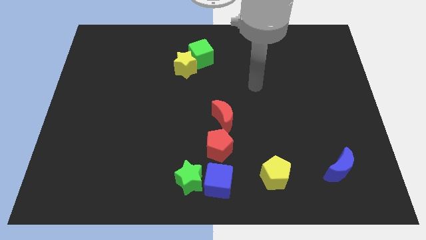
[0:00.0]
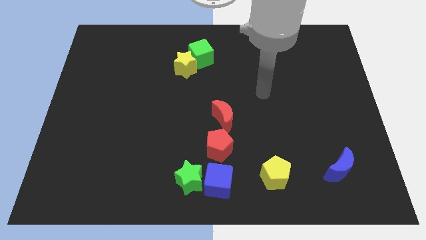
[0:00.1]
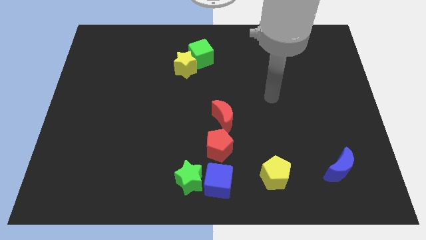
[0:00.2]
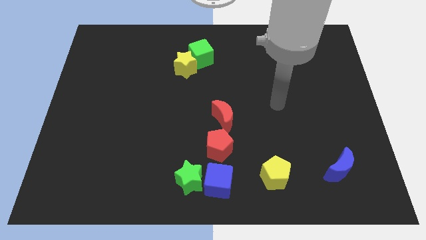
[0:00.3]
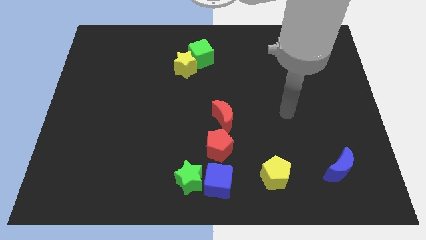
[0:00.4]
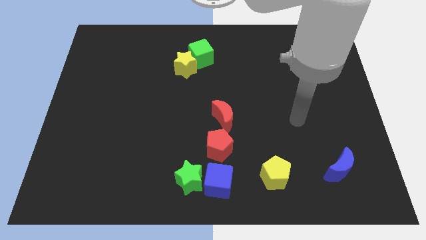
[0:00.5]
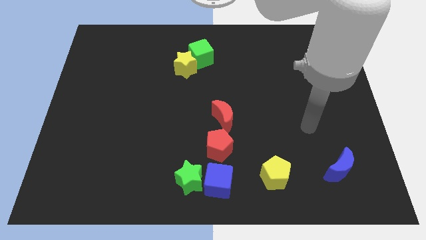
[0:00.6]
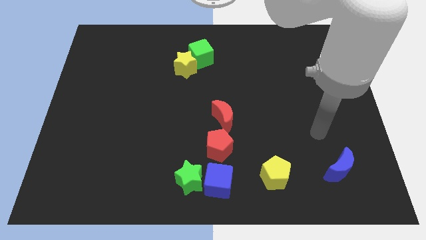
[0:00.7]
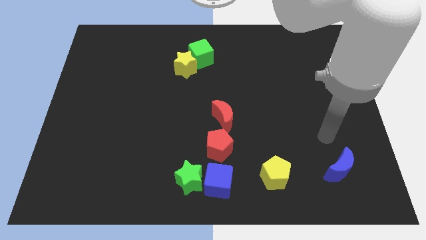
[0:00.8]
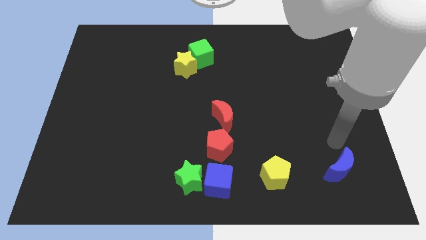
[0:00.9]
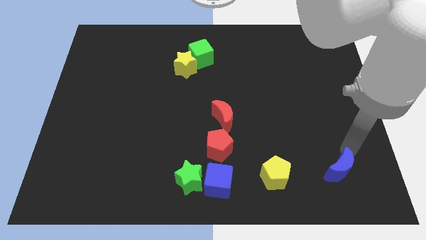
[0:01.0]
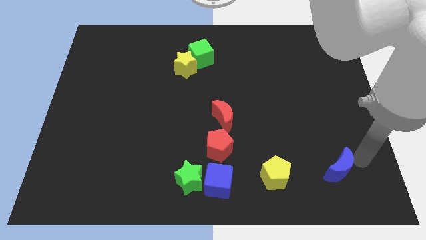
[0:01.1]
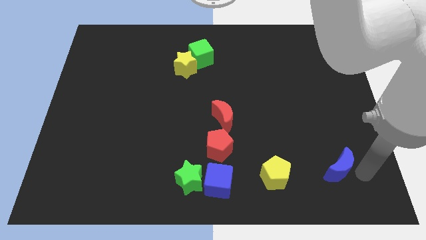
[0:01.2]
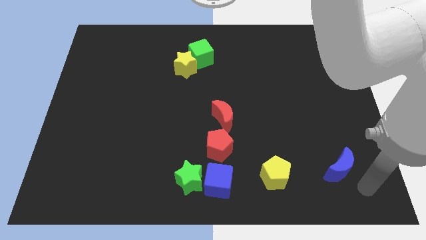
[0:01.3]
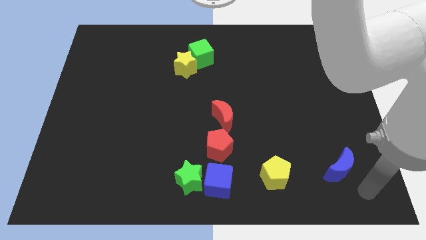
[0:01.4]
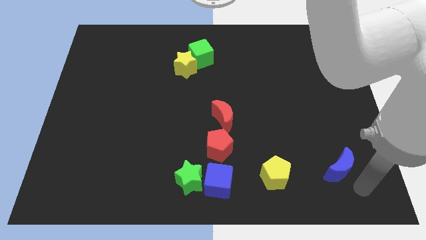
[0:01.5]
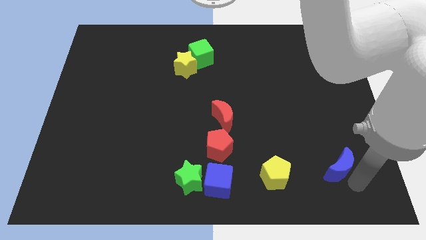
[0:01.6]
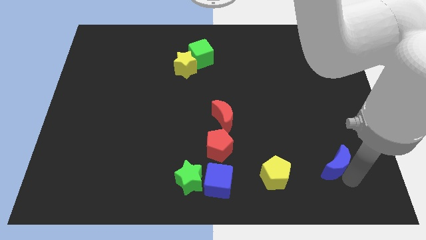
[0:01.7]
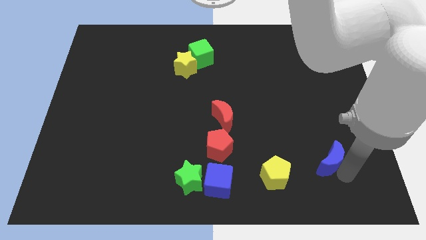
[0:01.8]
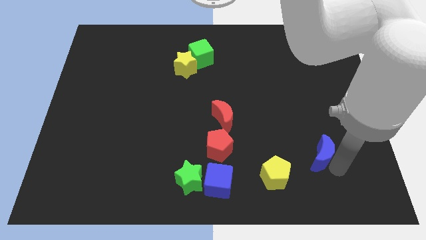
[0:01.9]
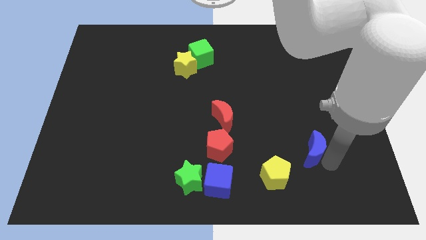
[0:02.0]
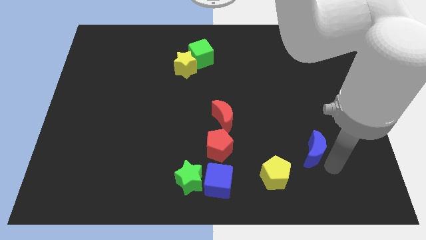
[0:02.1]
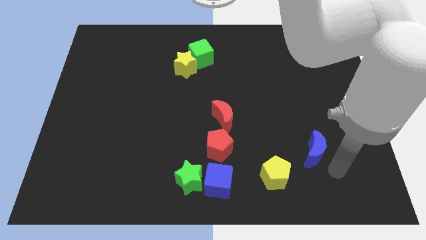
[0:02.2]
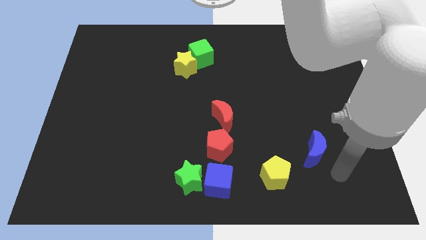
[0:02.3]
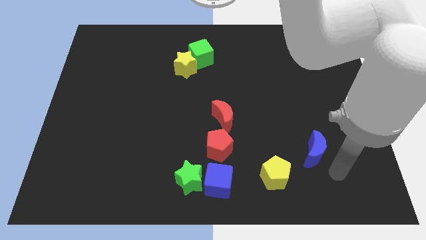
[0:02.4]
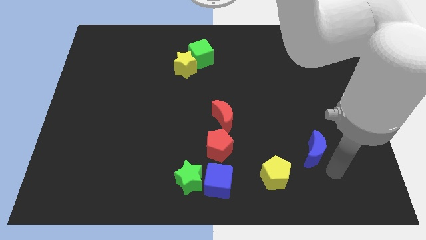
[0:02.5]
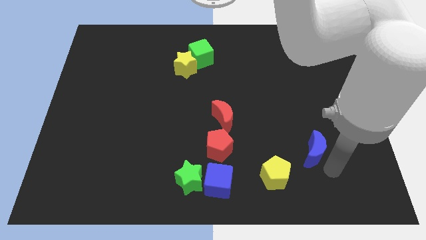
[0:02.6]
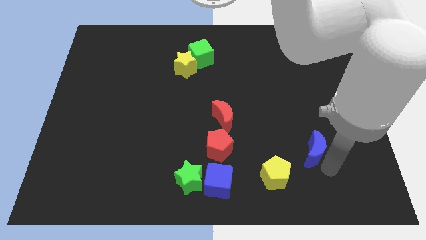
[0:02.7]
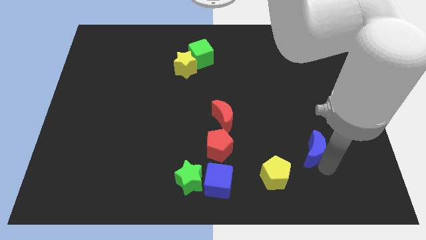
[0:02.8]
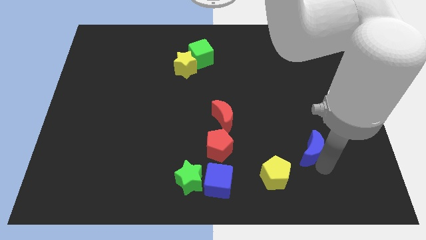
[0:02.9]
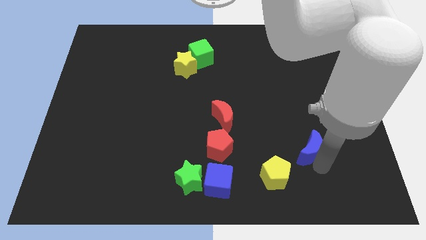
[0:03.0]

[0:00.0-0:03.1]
move the blue moon somewhat up and to the left

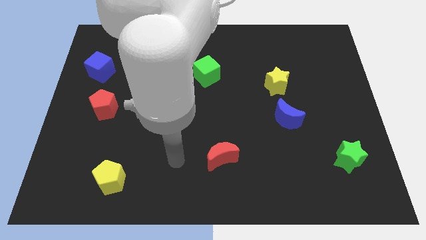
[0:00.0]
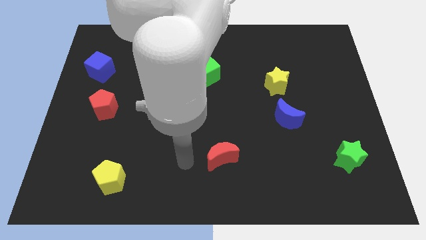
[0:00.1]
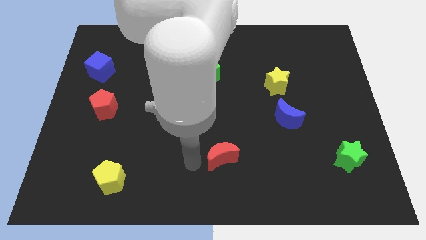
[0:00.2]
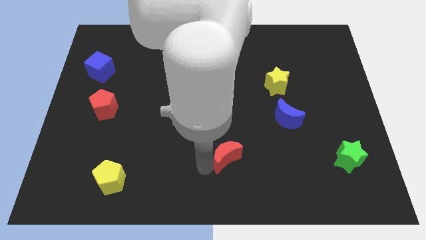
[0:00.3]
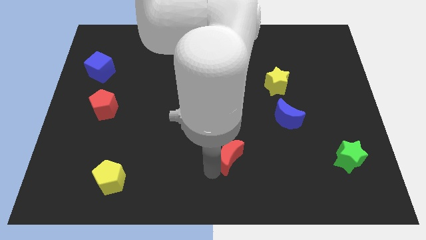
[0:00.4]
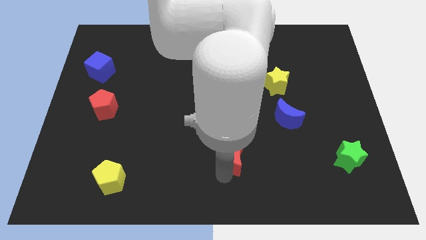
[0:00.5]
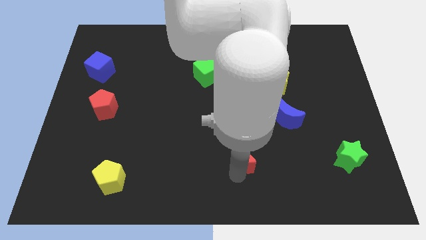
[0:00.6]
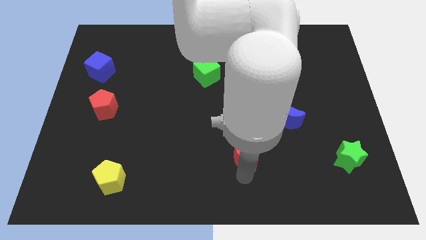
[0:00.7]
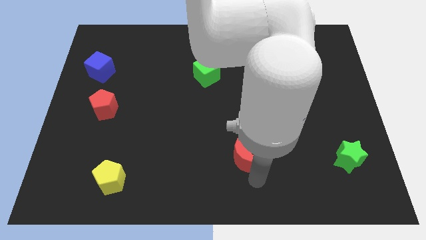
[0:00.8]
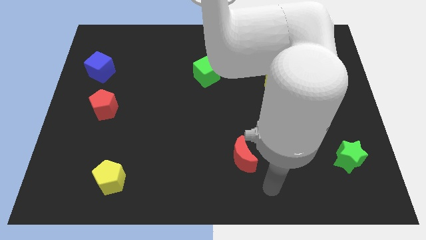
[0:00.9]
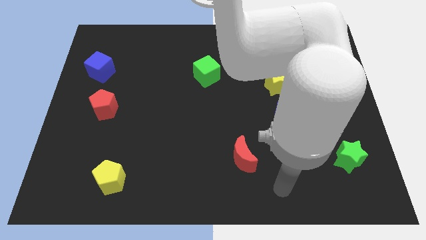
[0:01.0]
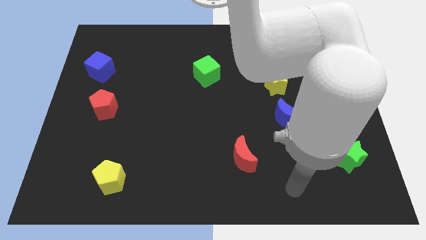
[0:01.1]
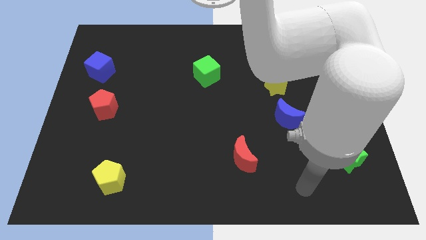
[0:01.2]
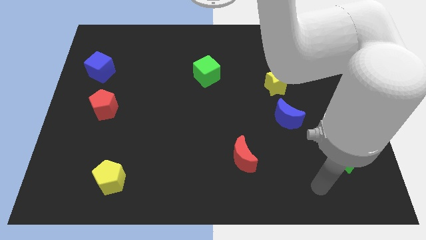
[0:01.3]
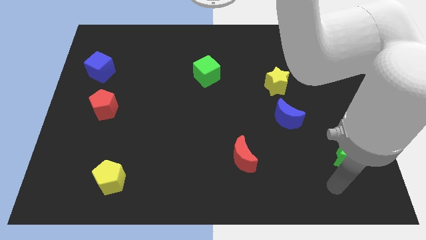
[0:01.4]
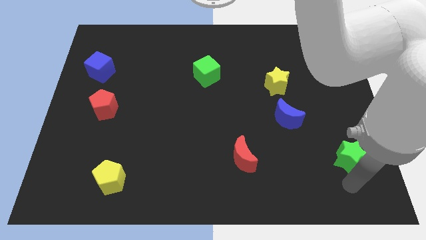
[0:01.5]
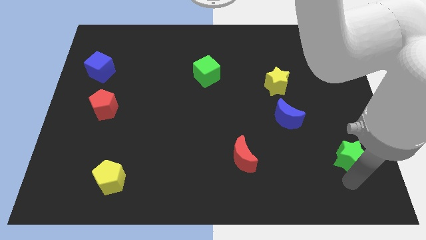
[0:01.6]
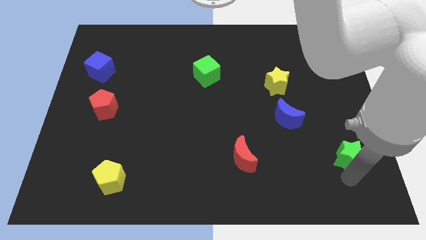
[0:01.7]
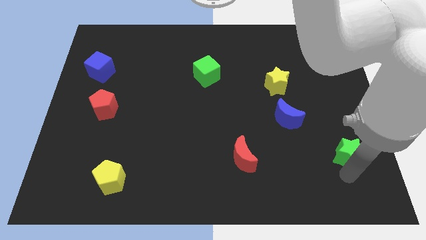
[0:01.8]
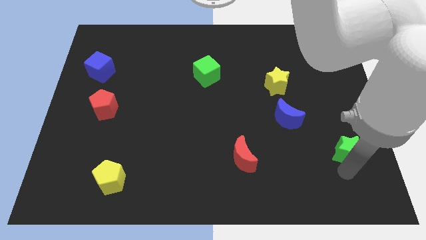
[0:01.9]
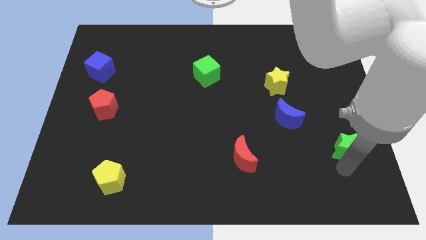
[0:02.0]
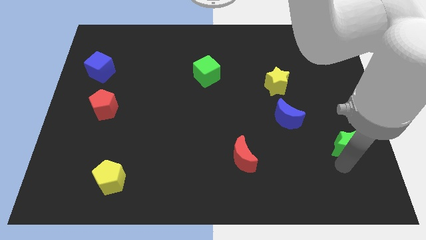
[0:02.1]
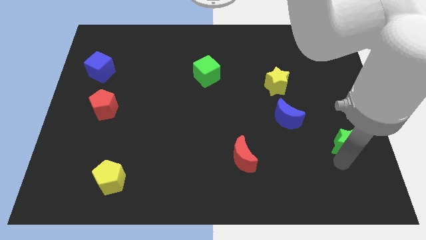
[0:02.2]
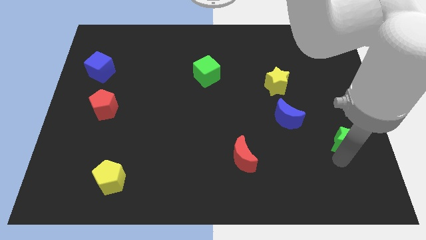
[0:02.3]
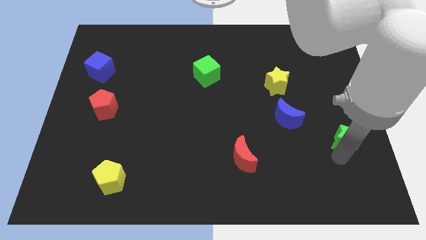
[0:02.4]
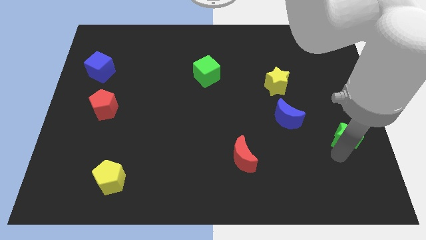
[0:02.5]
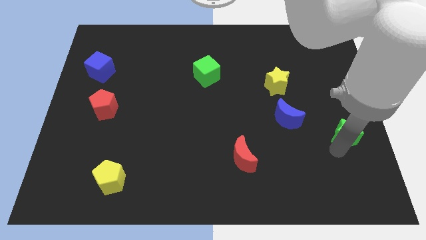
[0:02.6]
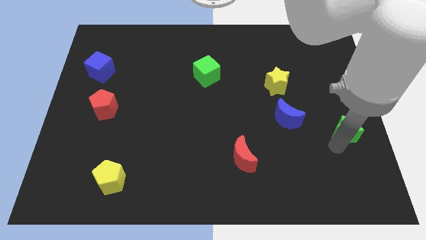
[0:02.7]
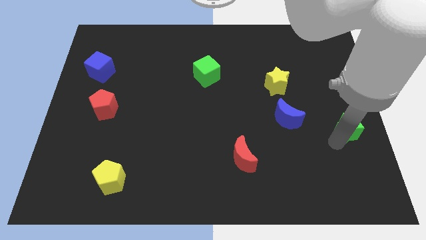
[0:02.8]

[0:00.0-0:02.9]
move the green star somewhat up

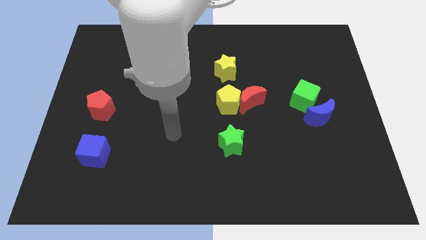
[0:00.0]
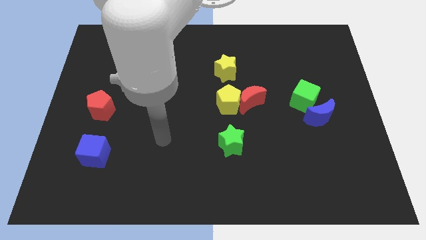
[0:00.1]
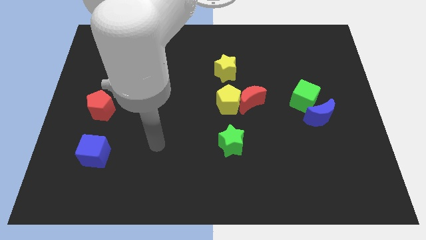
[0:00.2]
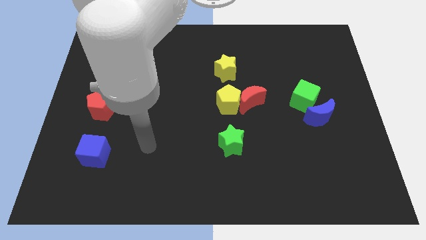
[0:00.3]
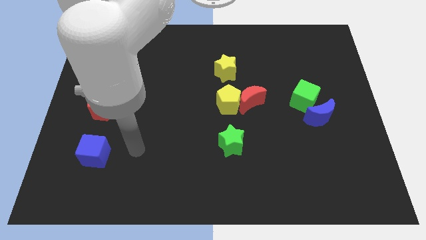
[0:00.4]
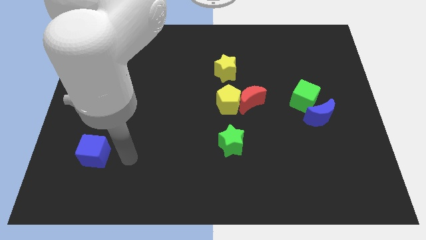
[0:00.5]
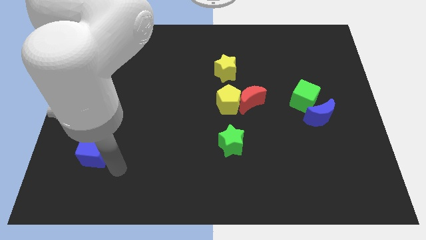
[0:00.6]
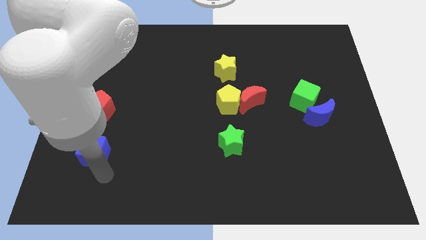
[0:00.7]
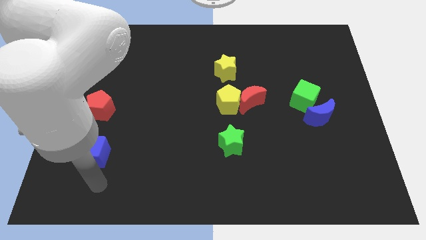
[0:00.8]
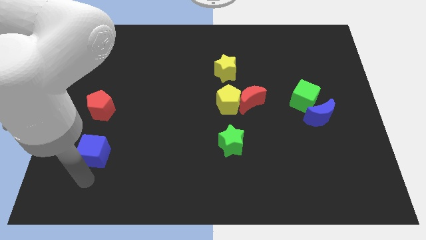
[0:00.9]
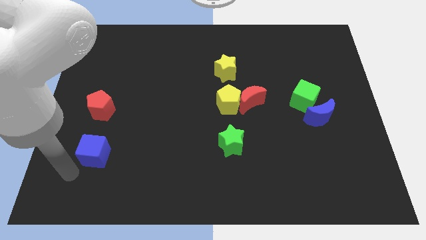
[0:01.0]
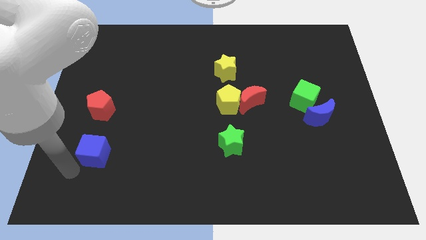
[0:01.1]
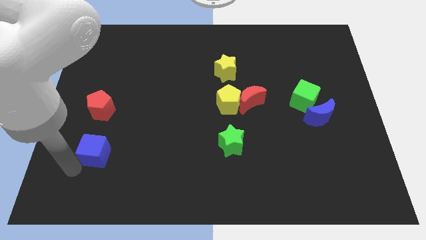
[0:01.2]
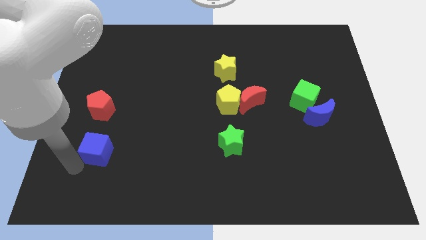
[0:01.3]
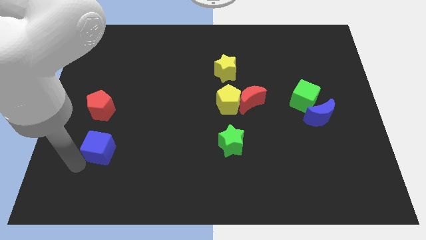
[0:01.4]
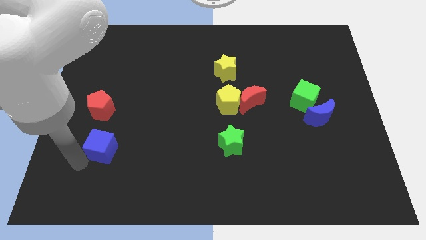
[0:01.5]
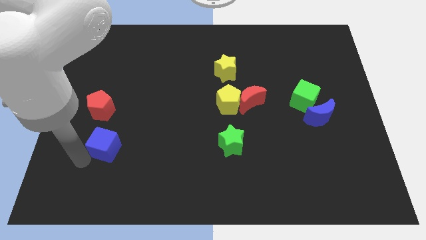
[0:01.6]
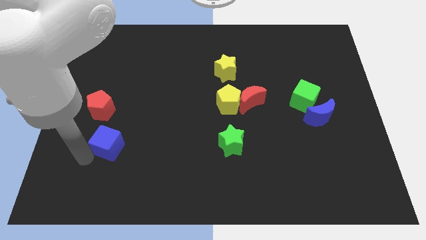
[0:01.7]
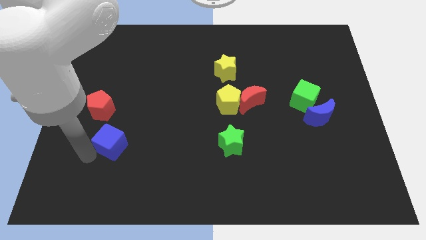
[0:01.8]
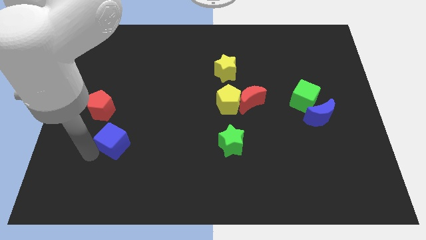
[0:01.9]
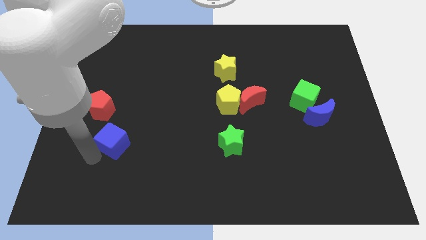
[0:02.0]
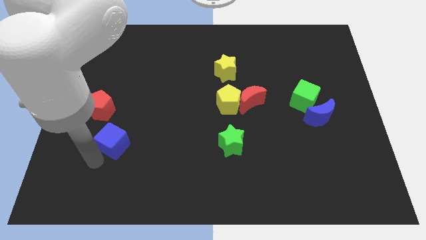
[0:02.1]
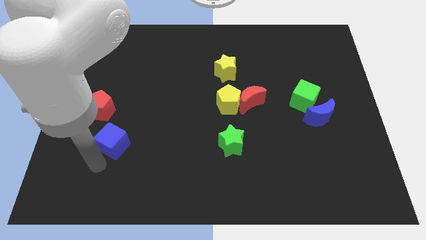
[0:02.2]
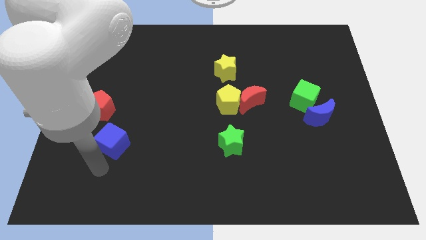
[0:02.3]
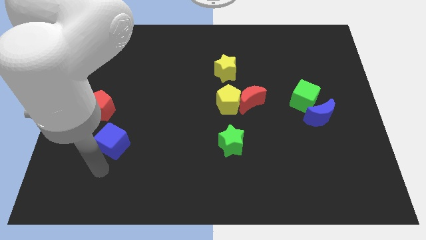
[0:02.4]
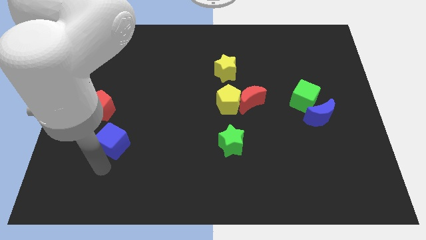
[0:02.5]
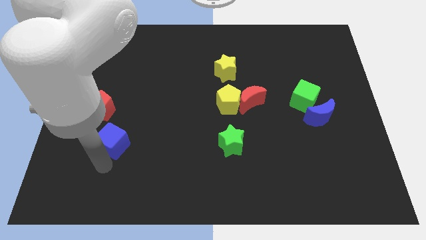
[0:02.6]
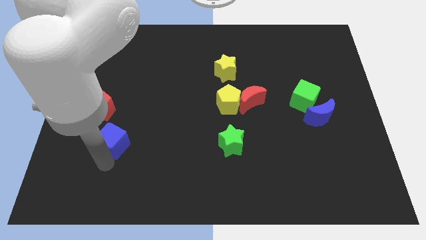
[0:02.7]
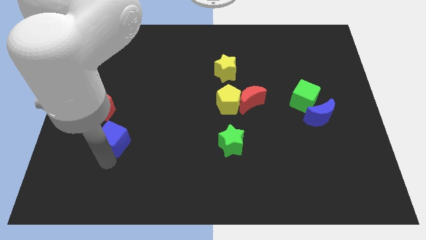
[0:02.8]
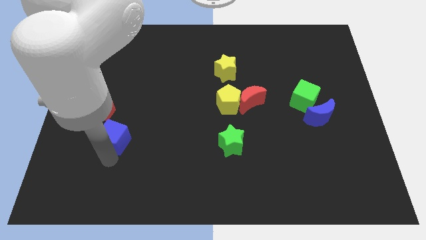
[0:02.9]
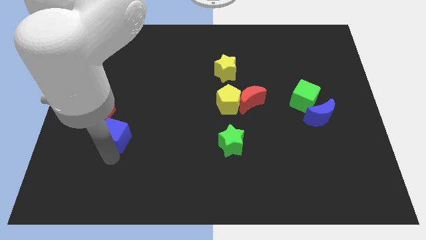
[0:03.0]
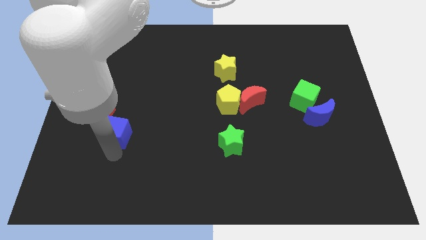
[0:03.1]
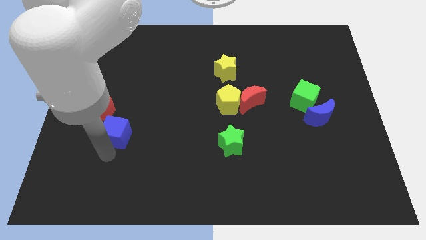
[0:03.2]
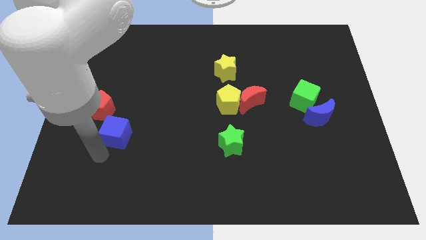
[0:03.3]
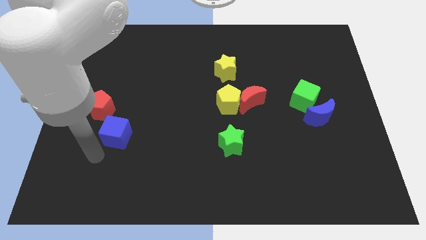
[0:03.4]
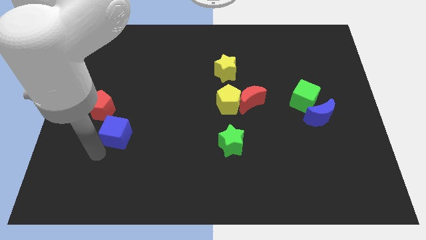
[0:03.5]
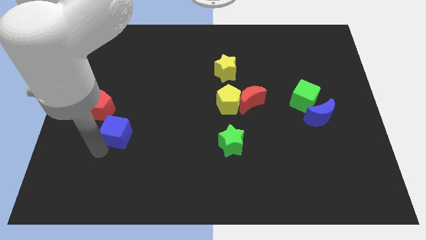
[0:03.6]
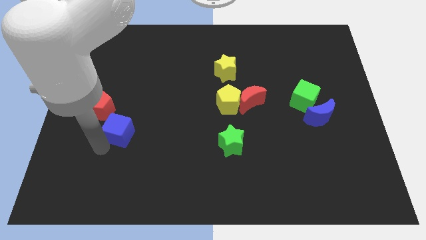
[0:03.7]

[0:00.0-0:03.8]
move the blue cube somewhat diagonally upwards and to the right
